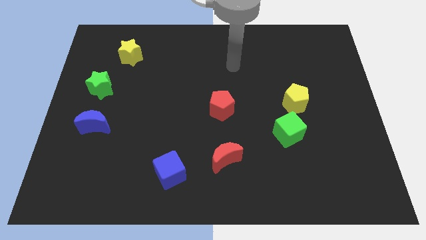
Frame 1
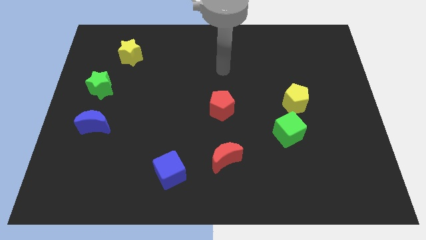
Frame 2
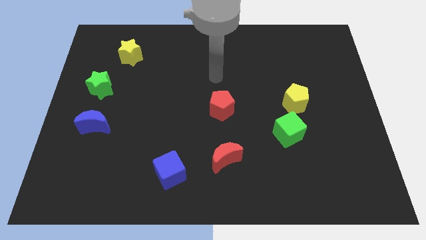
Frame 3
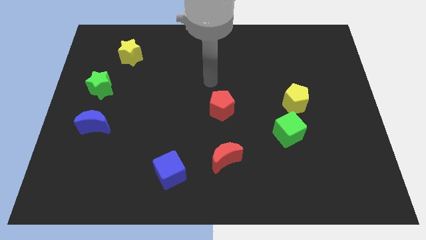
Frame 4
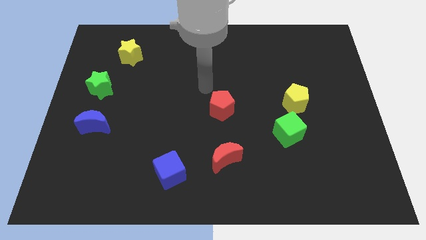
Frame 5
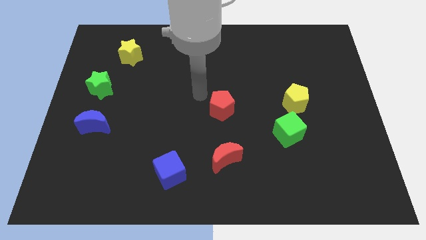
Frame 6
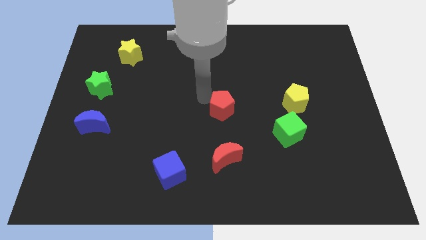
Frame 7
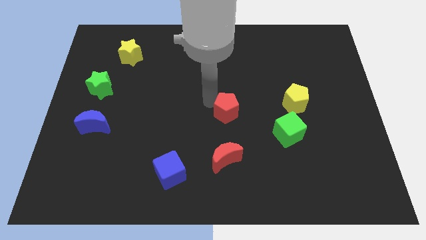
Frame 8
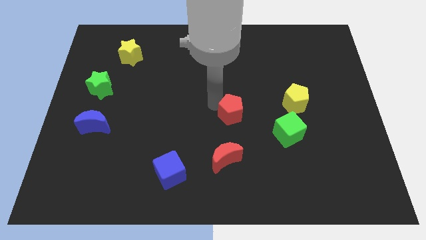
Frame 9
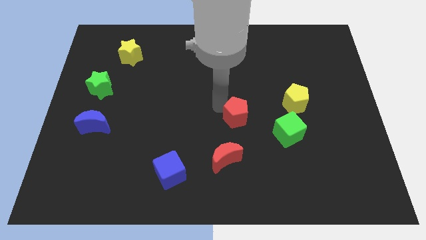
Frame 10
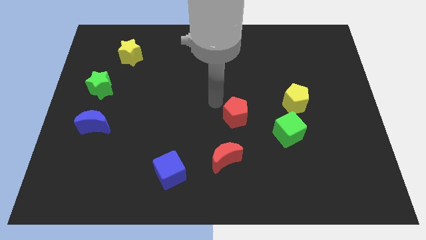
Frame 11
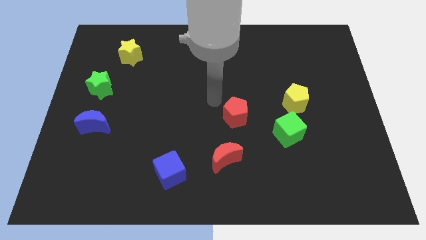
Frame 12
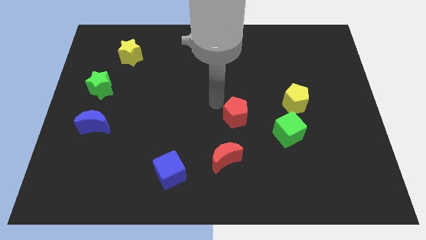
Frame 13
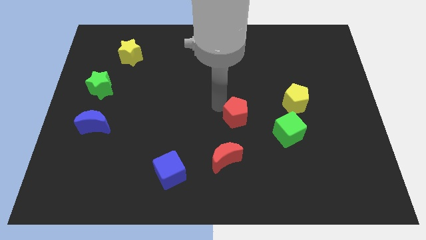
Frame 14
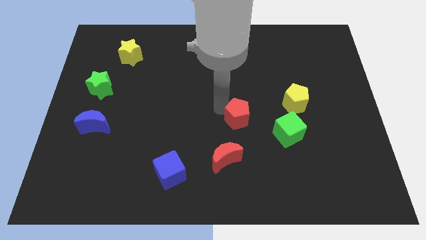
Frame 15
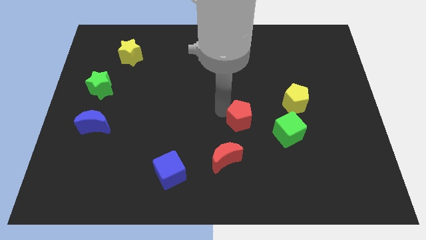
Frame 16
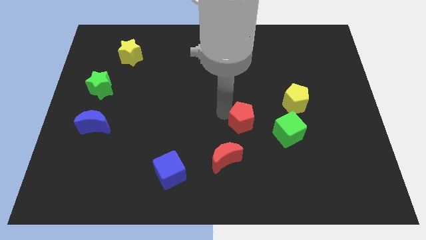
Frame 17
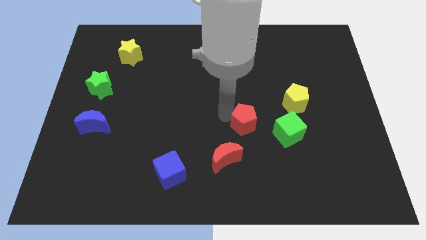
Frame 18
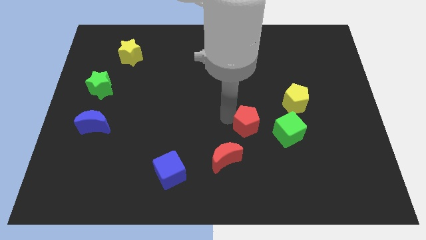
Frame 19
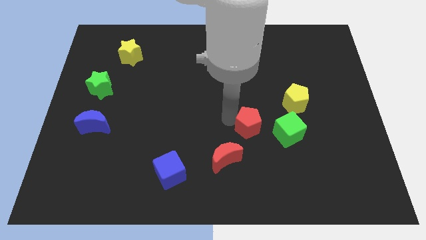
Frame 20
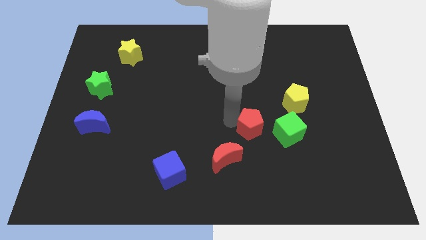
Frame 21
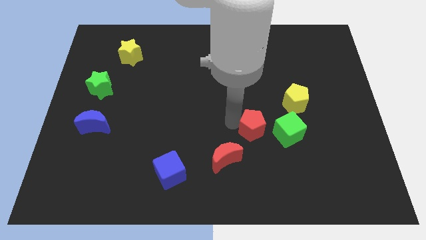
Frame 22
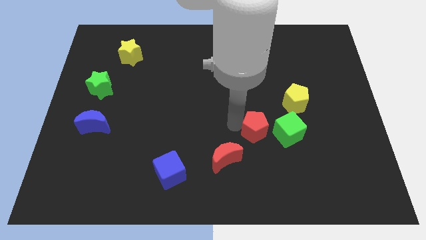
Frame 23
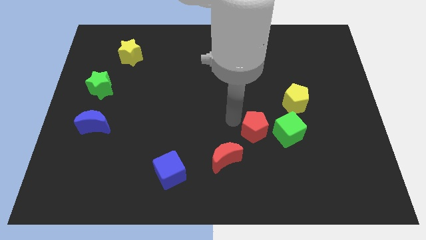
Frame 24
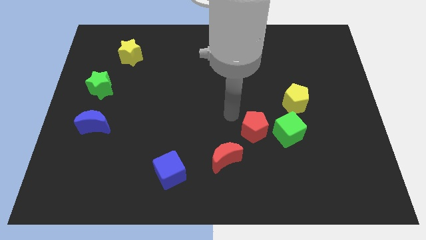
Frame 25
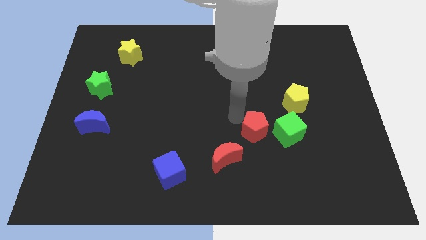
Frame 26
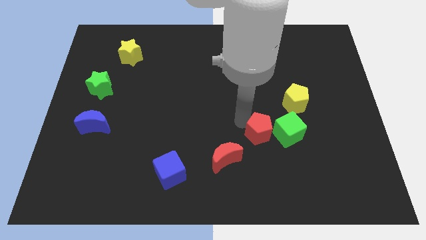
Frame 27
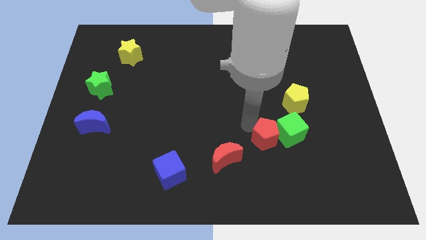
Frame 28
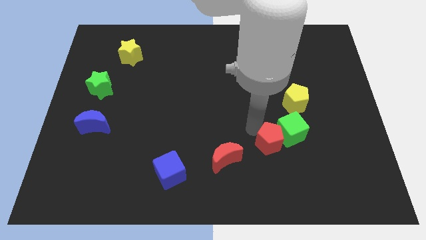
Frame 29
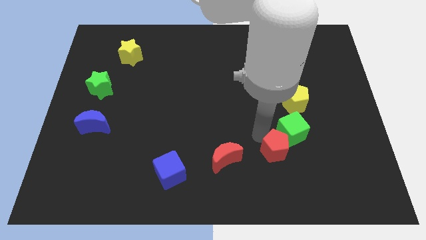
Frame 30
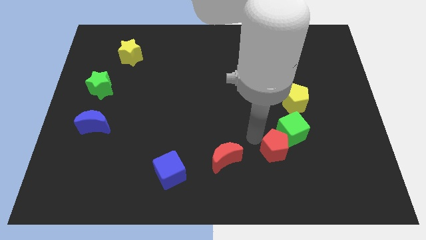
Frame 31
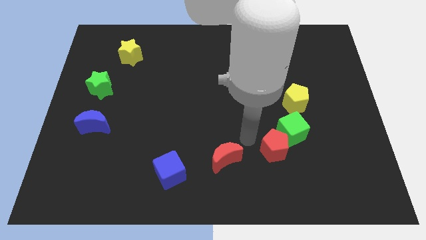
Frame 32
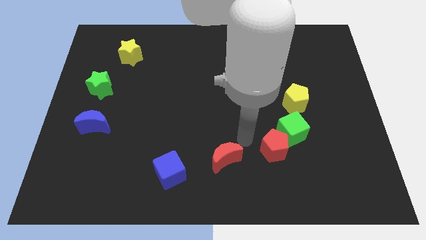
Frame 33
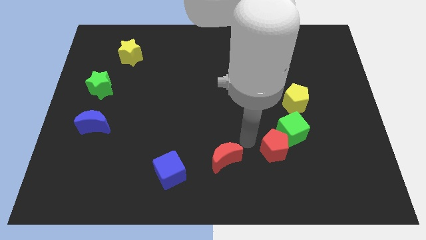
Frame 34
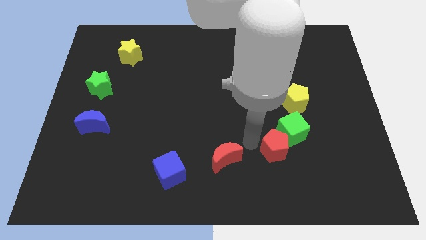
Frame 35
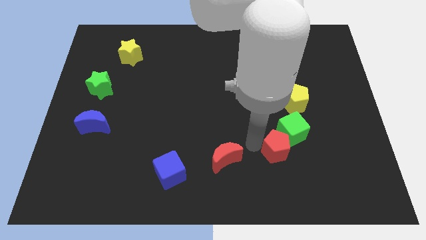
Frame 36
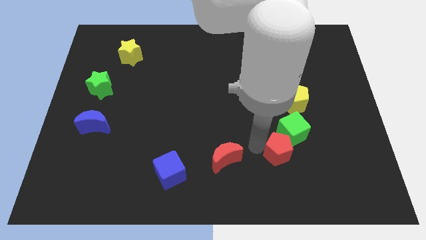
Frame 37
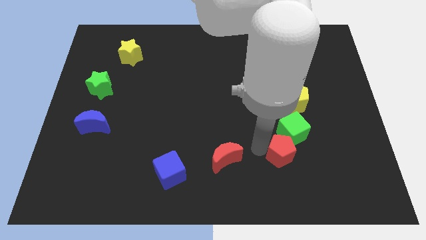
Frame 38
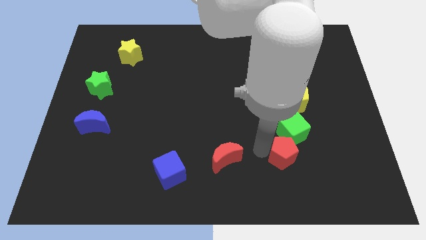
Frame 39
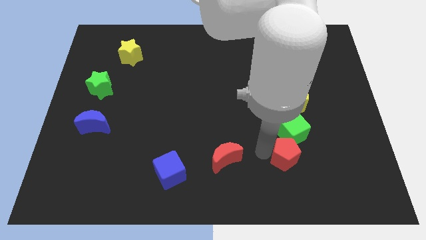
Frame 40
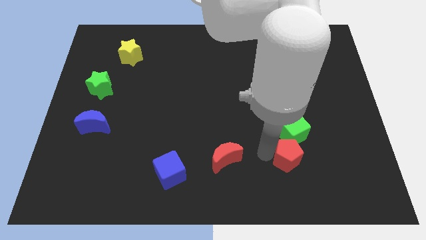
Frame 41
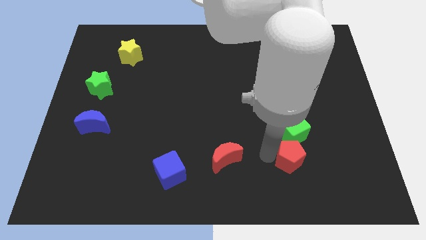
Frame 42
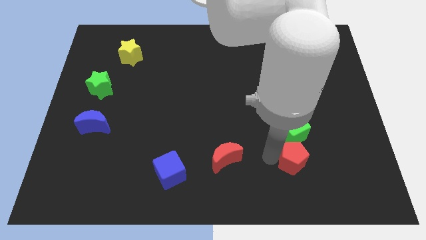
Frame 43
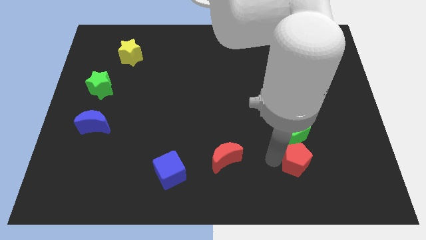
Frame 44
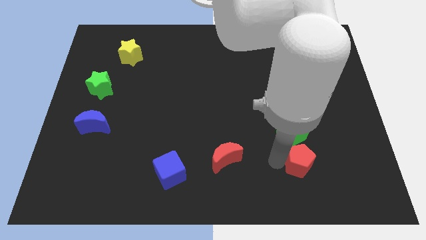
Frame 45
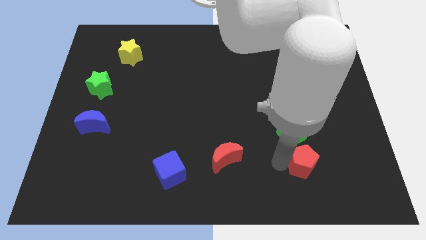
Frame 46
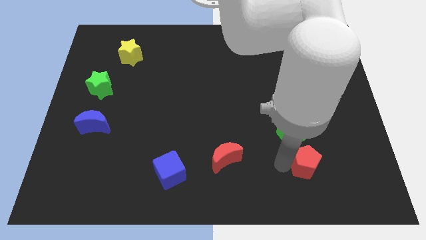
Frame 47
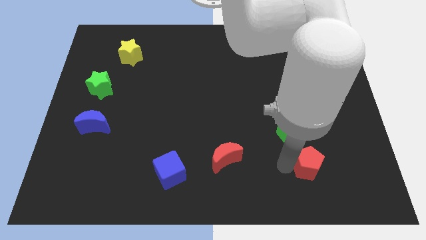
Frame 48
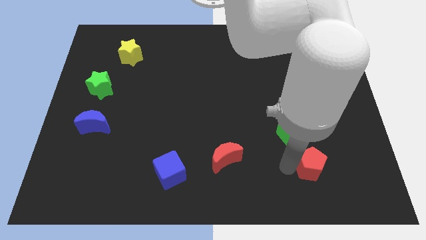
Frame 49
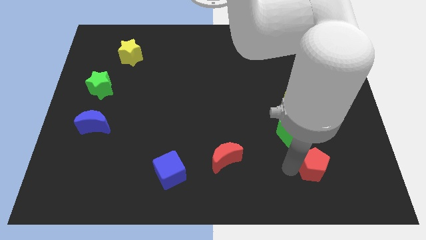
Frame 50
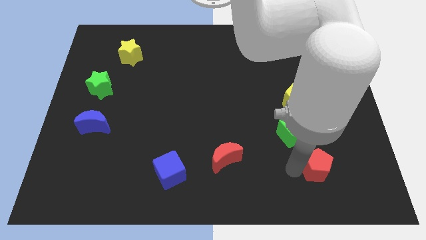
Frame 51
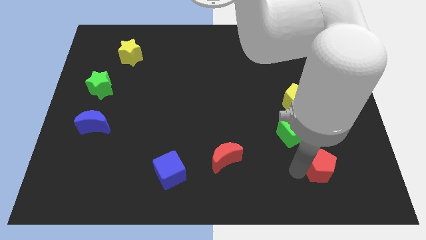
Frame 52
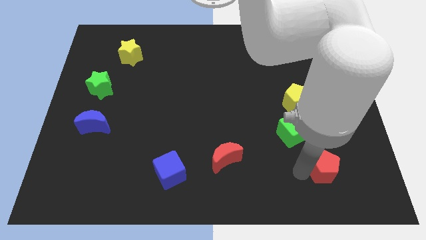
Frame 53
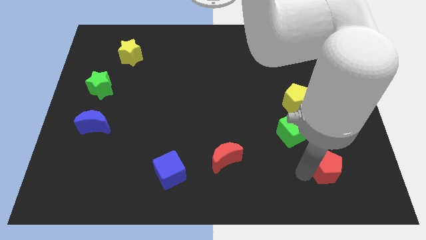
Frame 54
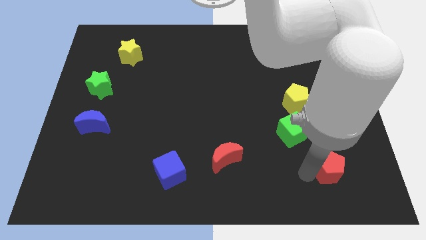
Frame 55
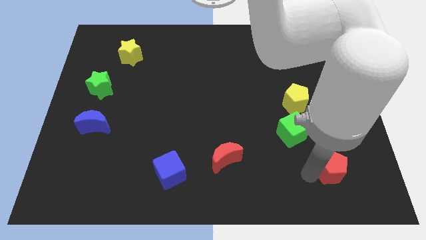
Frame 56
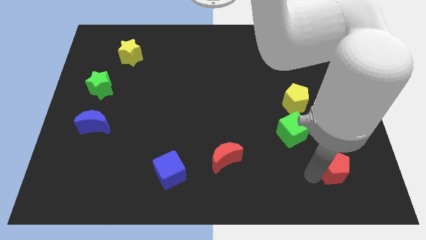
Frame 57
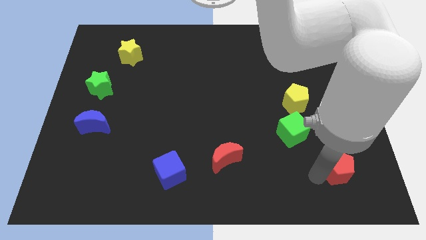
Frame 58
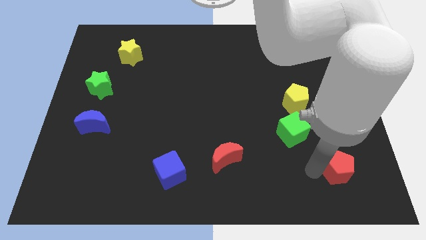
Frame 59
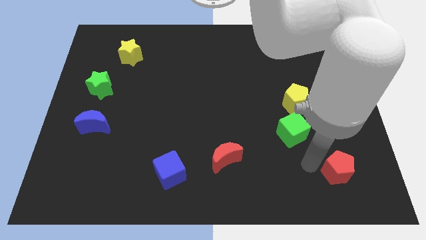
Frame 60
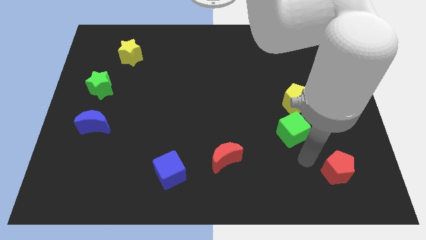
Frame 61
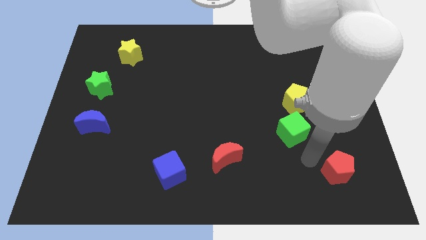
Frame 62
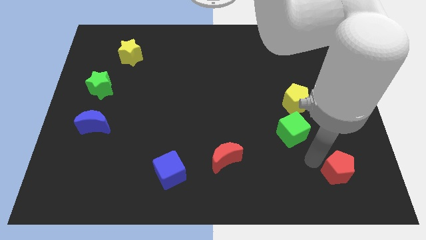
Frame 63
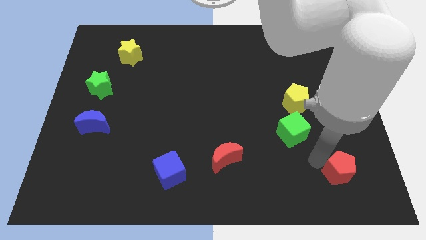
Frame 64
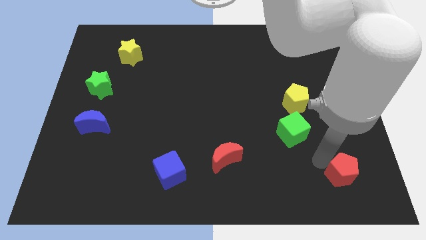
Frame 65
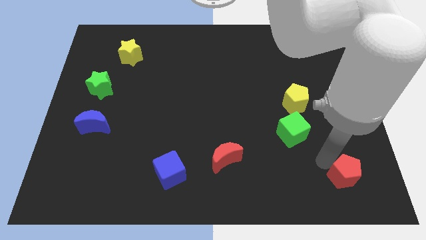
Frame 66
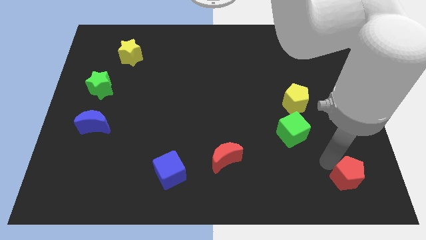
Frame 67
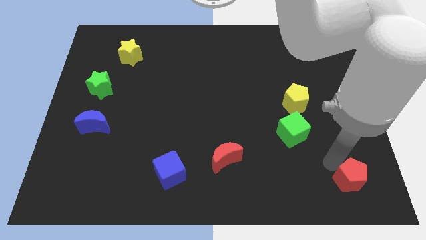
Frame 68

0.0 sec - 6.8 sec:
put the red pentagon to the bottom right

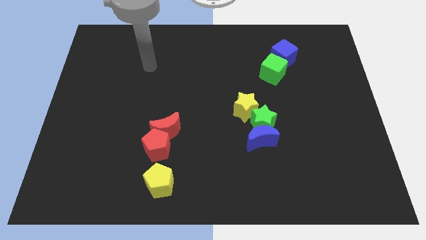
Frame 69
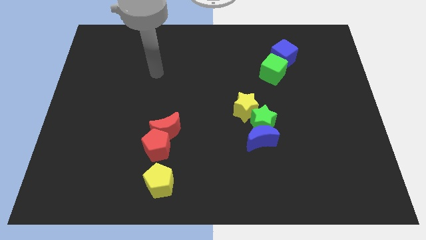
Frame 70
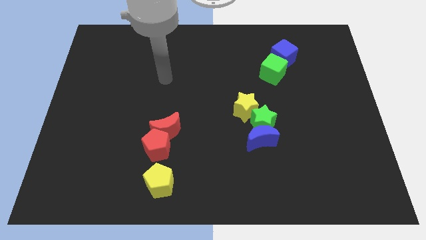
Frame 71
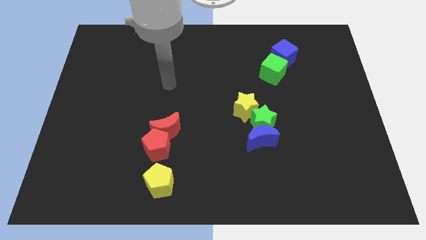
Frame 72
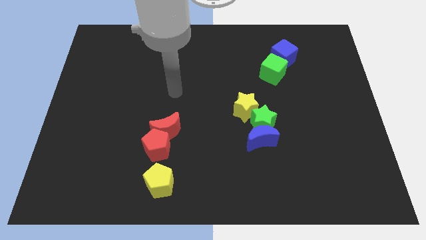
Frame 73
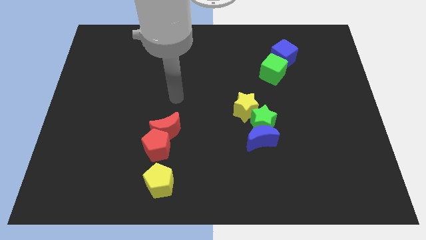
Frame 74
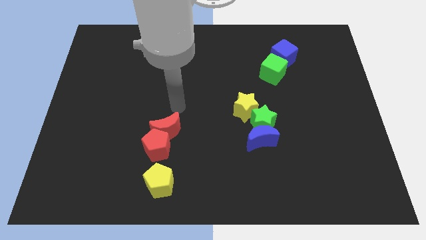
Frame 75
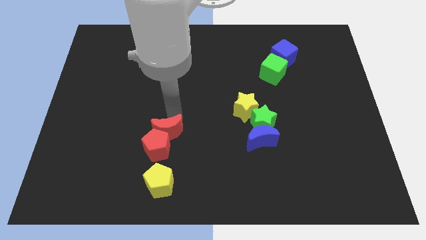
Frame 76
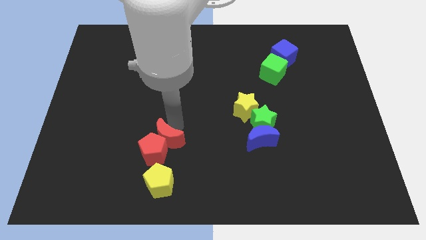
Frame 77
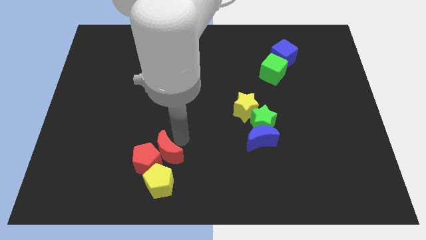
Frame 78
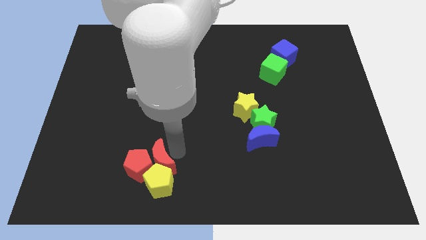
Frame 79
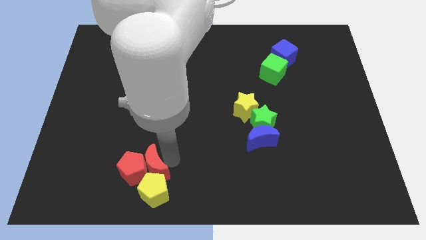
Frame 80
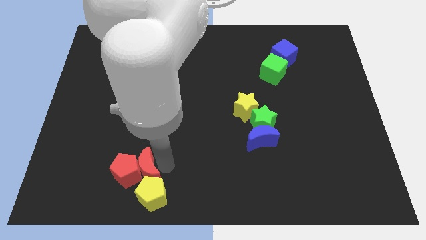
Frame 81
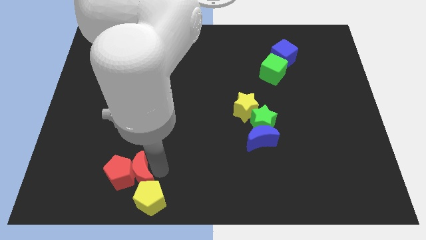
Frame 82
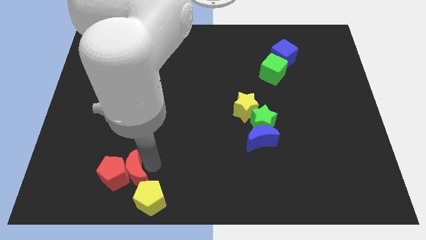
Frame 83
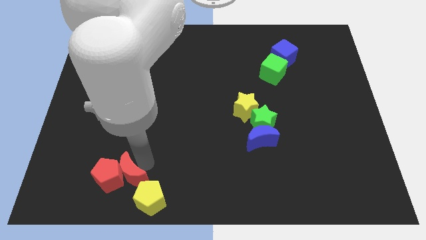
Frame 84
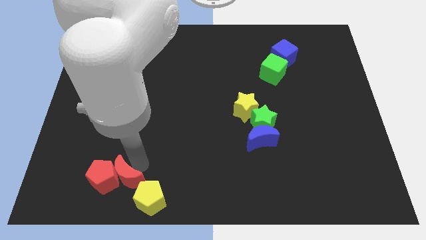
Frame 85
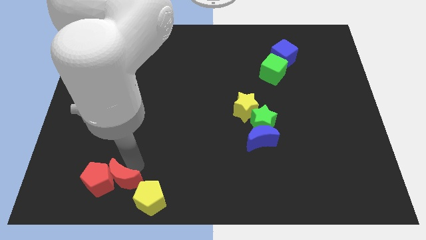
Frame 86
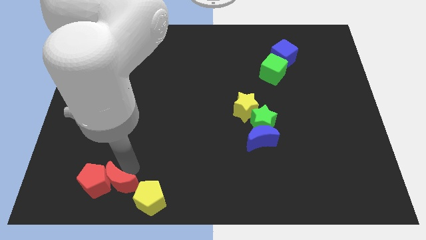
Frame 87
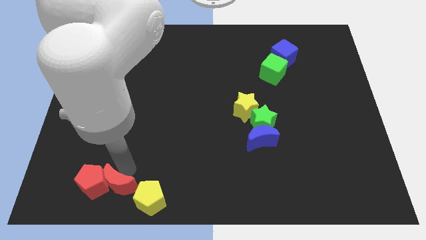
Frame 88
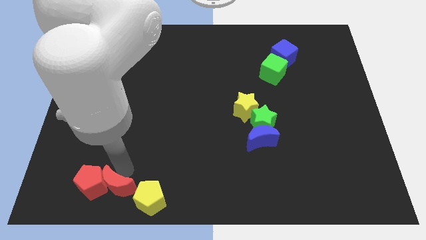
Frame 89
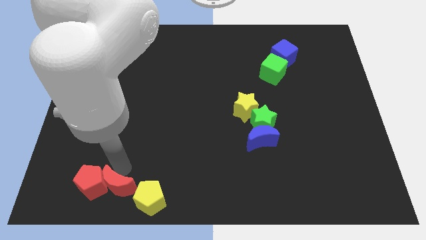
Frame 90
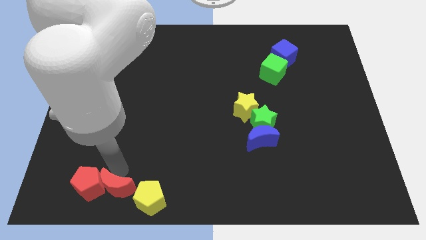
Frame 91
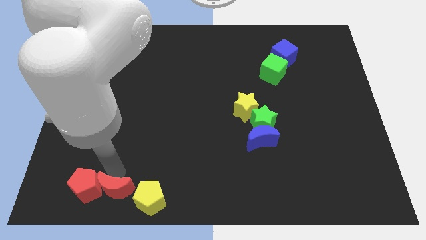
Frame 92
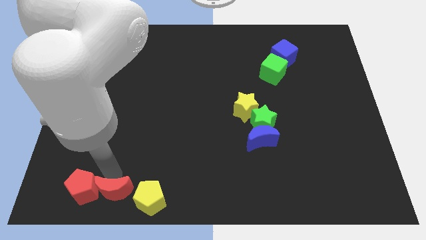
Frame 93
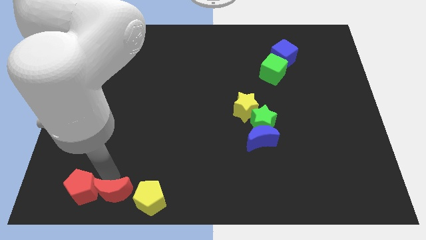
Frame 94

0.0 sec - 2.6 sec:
slide the red pentagon to the bottom left
